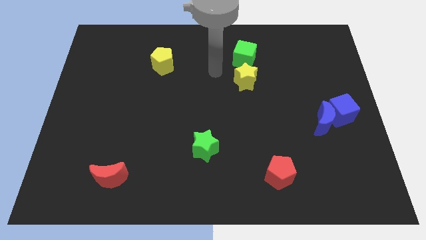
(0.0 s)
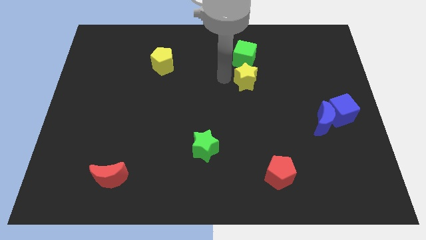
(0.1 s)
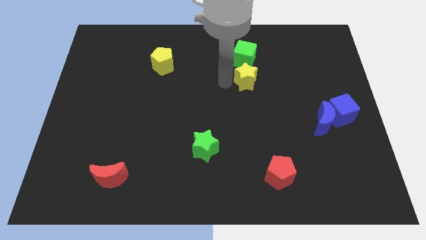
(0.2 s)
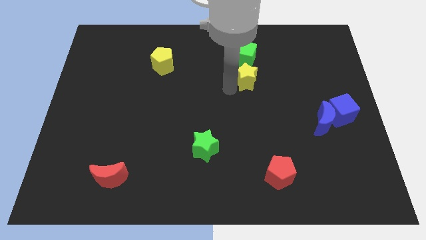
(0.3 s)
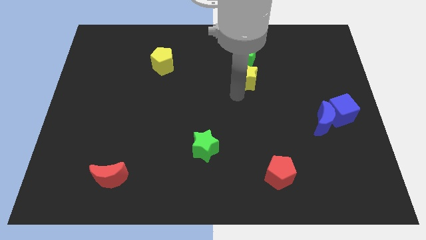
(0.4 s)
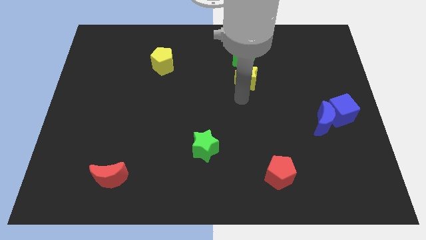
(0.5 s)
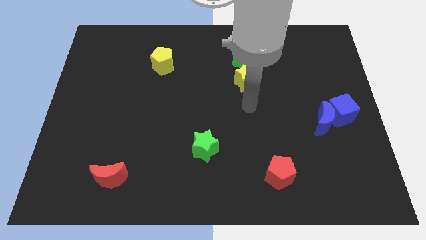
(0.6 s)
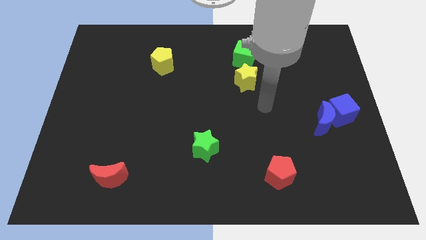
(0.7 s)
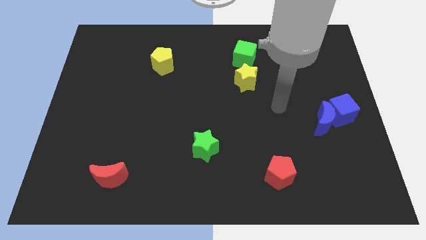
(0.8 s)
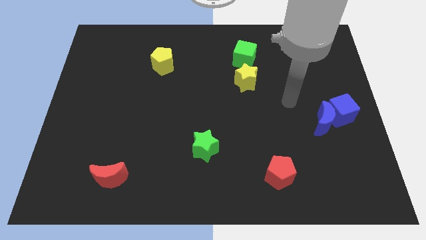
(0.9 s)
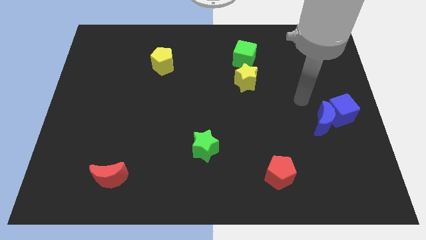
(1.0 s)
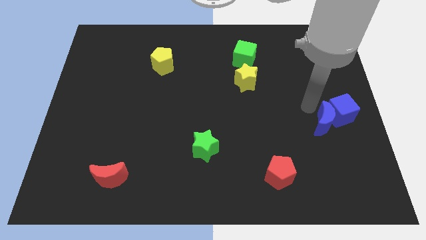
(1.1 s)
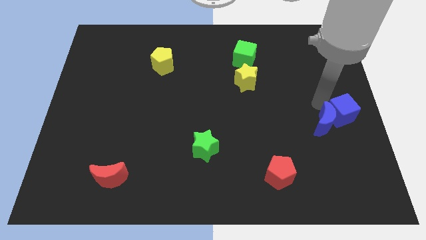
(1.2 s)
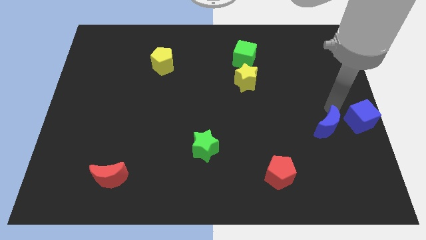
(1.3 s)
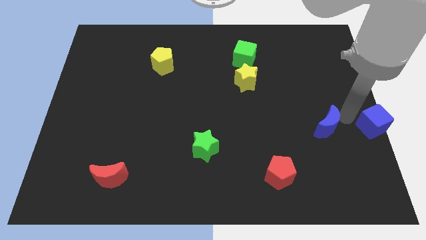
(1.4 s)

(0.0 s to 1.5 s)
pull the blue moon apart from the blue cube

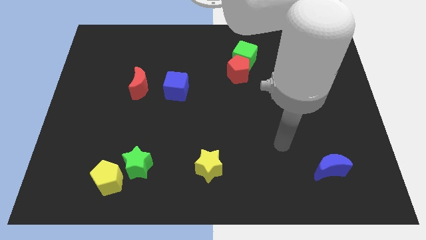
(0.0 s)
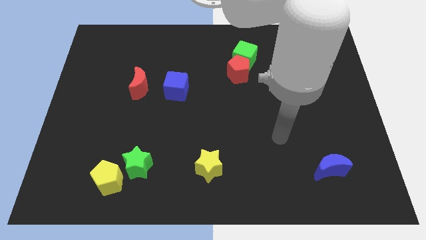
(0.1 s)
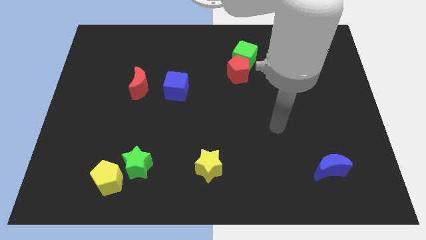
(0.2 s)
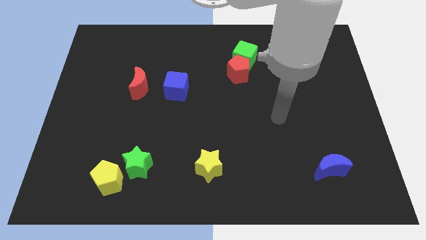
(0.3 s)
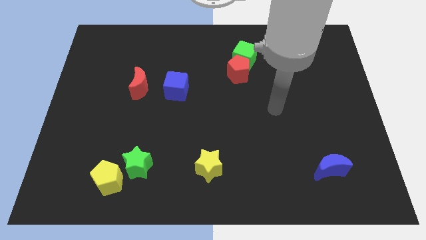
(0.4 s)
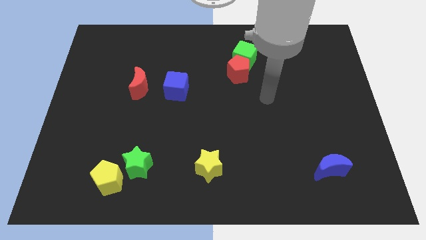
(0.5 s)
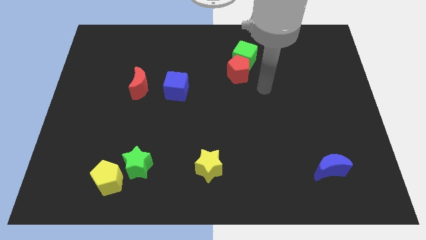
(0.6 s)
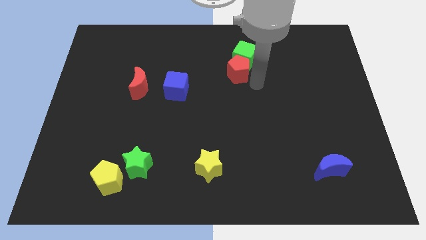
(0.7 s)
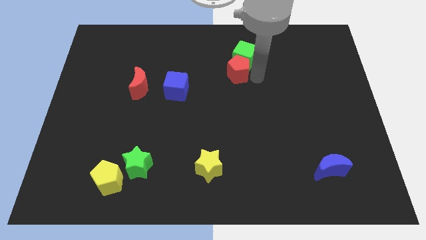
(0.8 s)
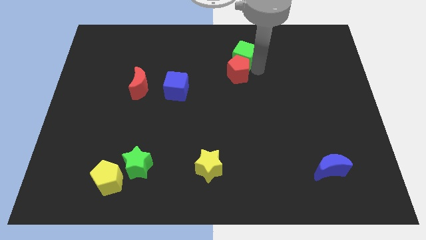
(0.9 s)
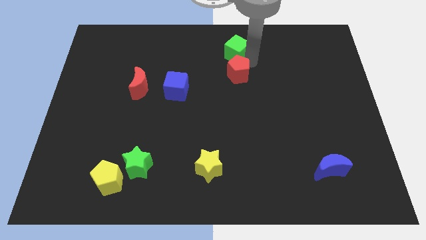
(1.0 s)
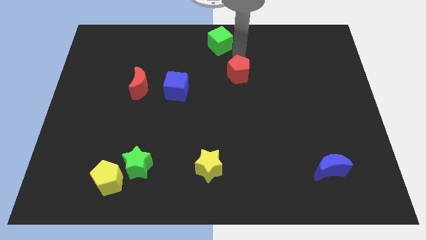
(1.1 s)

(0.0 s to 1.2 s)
move the red pentagon away from the green cube

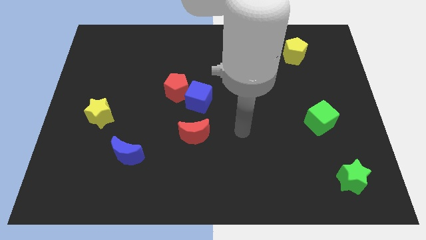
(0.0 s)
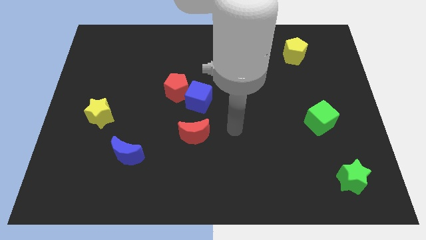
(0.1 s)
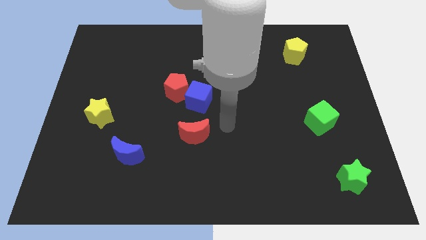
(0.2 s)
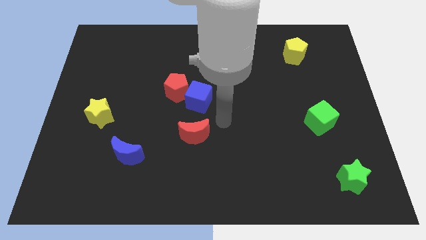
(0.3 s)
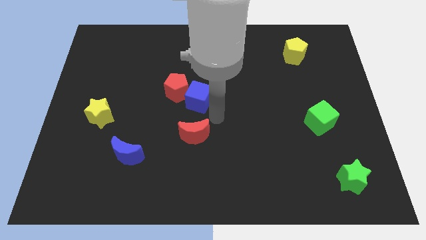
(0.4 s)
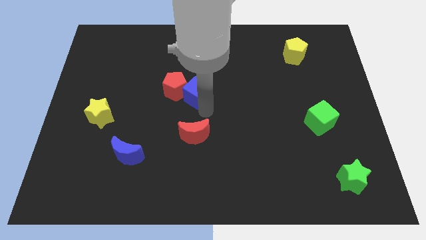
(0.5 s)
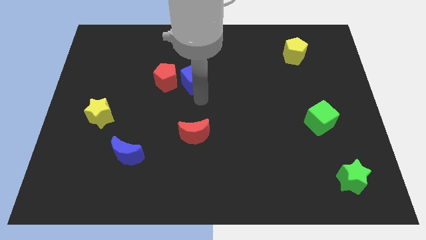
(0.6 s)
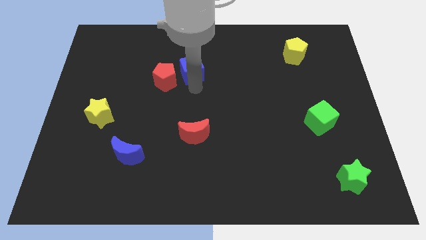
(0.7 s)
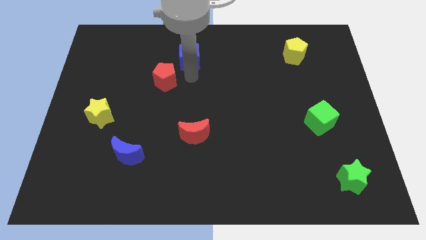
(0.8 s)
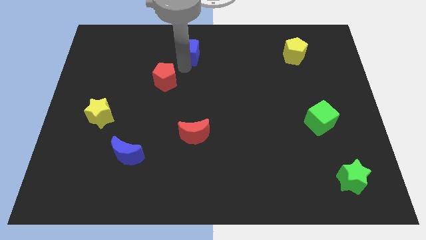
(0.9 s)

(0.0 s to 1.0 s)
separate the red pentagon from the blue cube

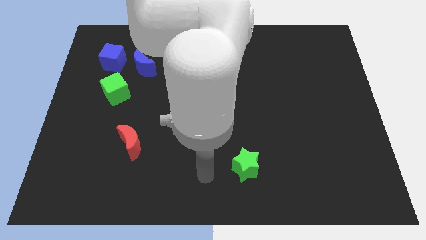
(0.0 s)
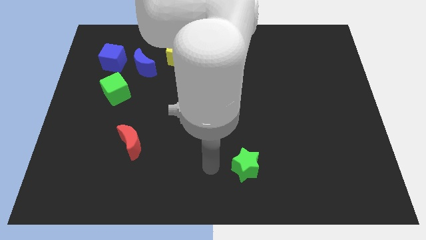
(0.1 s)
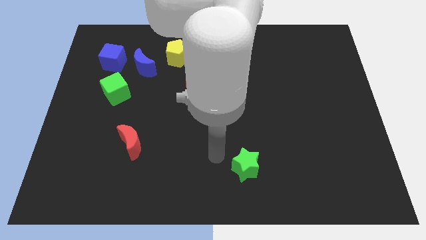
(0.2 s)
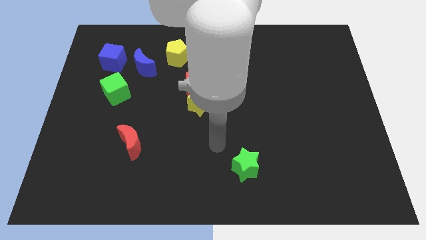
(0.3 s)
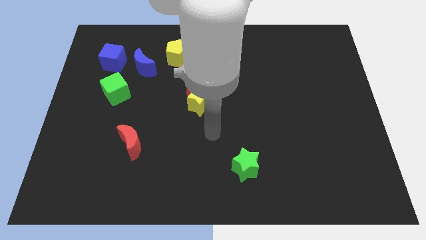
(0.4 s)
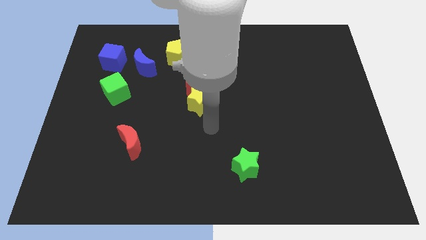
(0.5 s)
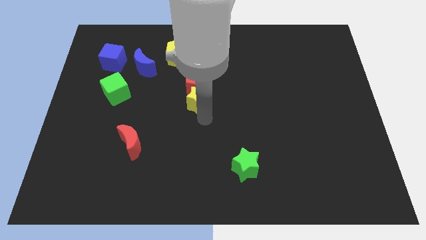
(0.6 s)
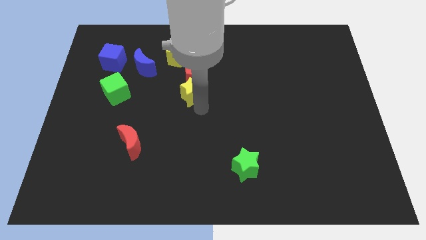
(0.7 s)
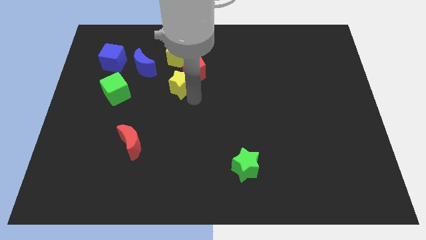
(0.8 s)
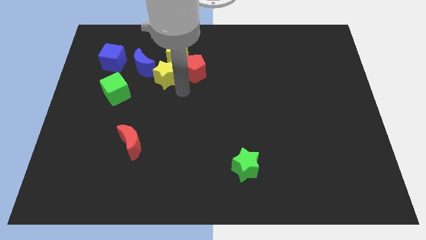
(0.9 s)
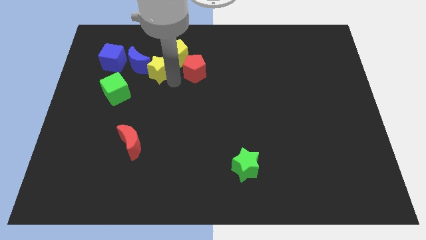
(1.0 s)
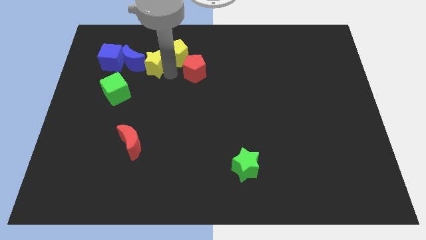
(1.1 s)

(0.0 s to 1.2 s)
separate the red pentagon from the yellow star

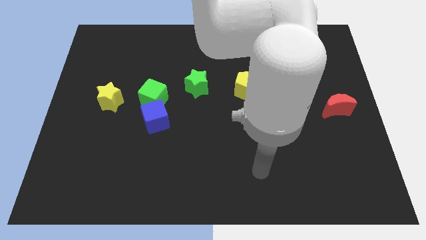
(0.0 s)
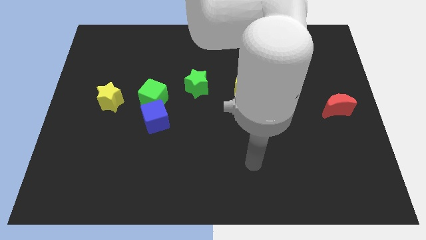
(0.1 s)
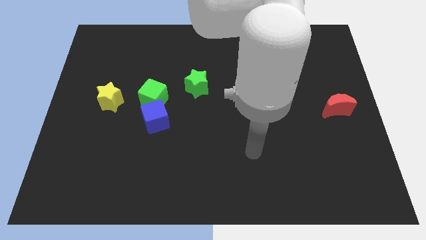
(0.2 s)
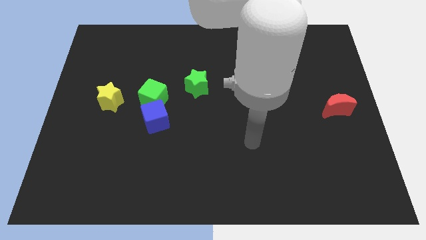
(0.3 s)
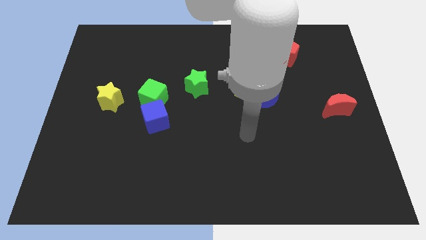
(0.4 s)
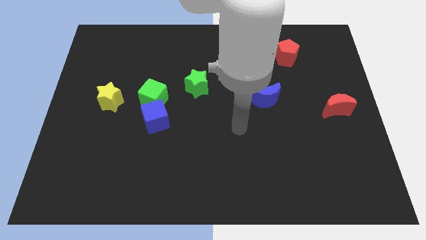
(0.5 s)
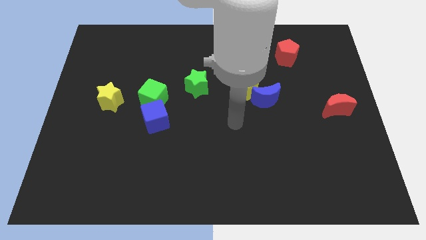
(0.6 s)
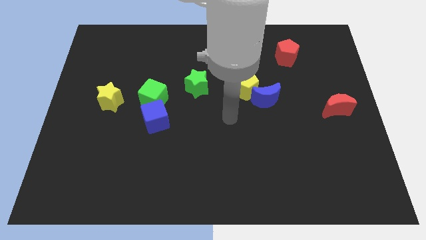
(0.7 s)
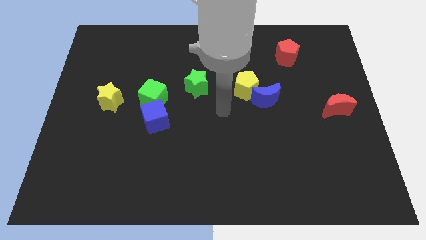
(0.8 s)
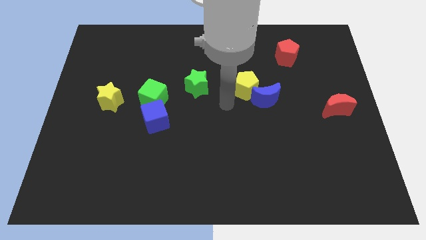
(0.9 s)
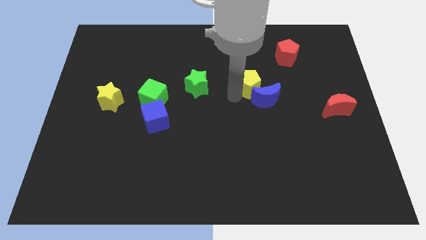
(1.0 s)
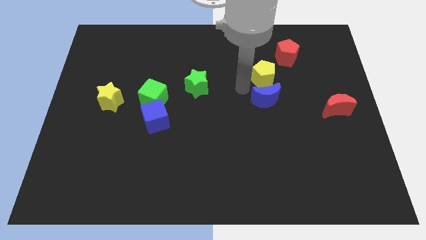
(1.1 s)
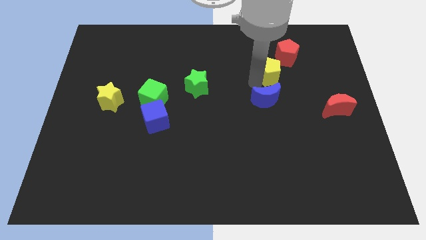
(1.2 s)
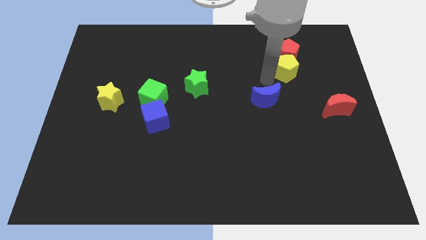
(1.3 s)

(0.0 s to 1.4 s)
pull the blue moon apart from the yellow pentagon

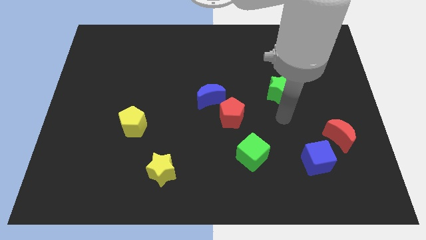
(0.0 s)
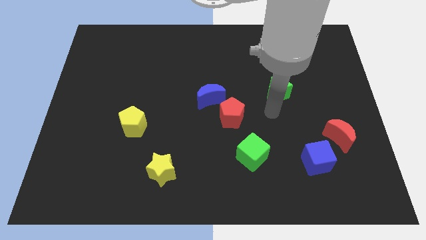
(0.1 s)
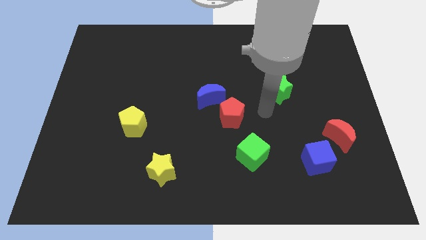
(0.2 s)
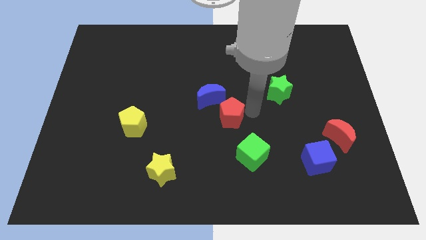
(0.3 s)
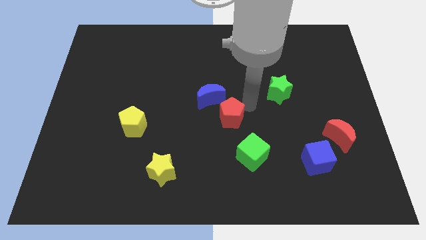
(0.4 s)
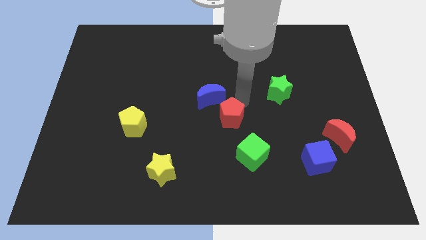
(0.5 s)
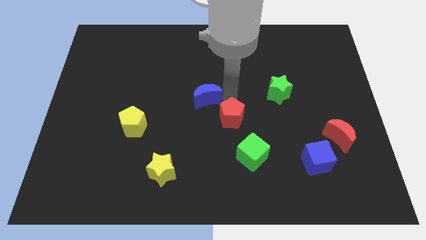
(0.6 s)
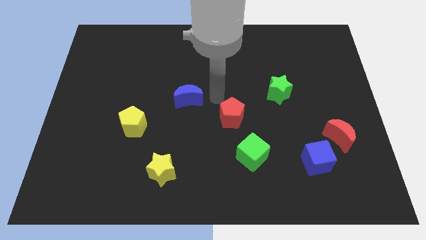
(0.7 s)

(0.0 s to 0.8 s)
move the red pentagon away from the blue moon

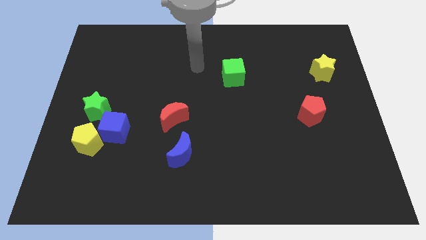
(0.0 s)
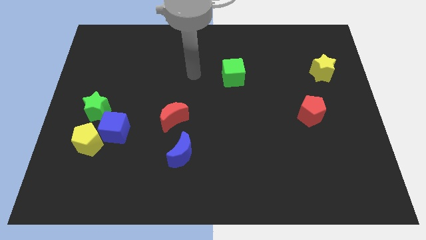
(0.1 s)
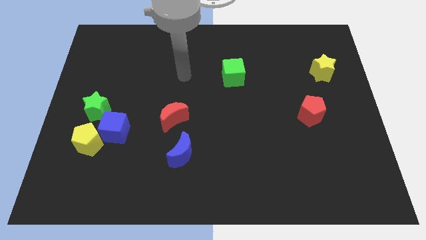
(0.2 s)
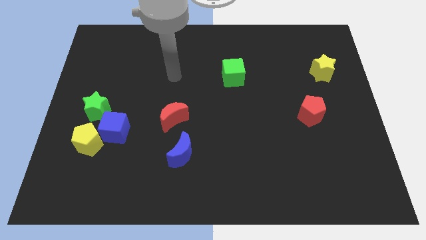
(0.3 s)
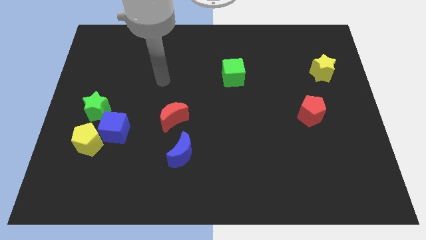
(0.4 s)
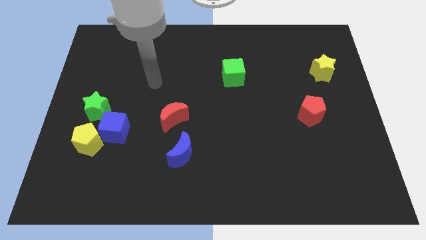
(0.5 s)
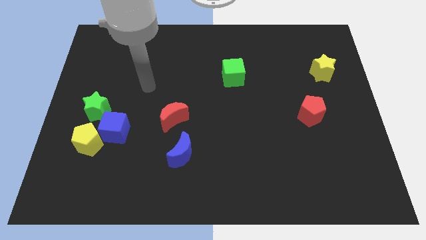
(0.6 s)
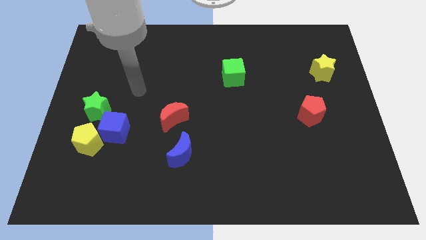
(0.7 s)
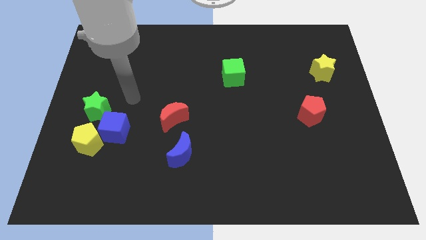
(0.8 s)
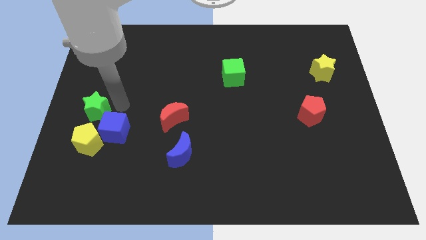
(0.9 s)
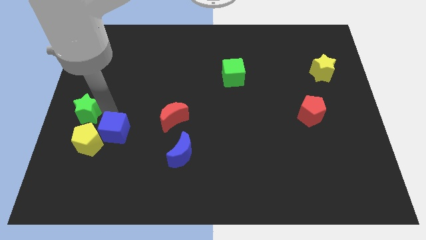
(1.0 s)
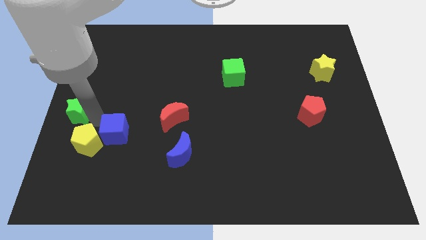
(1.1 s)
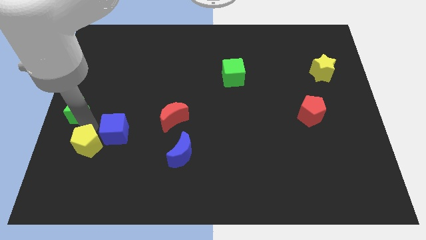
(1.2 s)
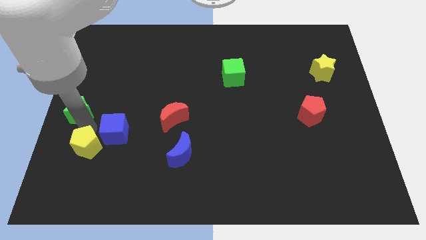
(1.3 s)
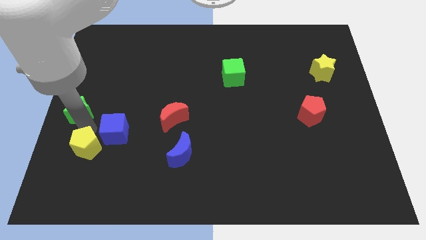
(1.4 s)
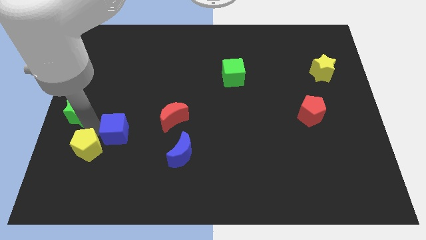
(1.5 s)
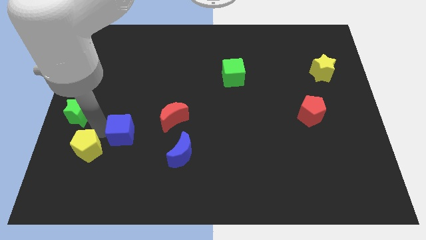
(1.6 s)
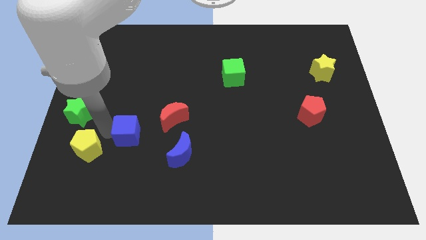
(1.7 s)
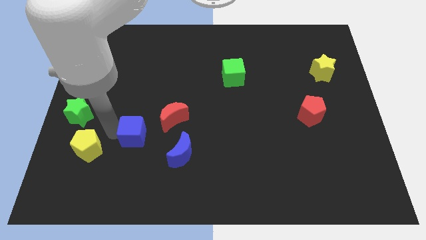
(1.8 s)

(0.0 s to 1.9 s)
pull the blue cube apart from the yellow pentagon and green star

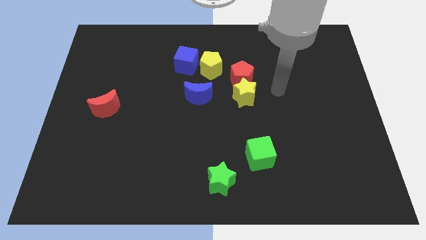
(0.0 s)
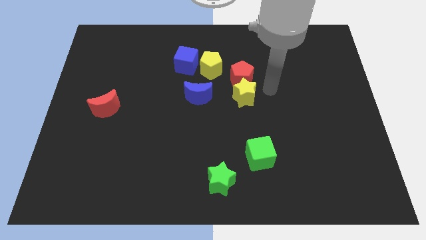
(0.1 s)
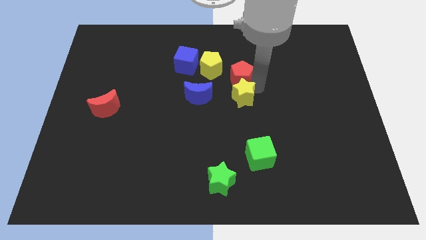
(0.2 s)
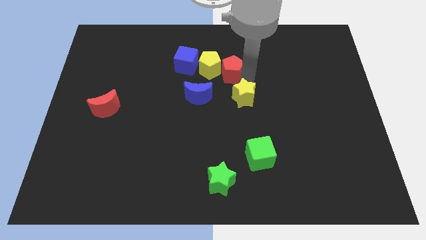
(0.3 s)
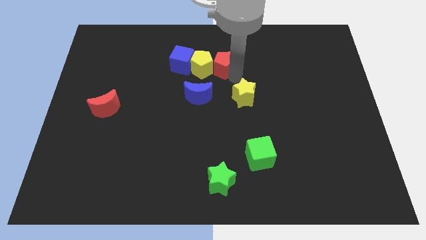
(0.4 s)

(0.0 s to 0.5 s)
separate the yellow star from the red pentagon
